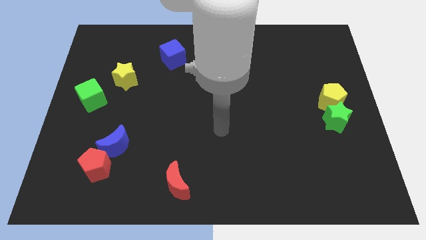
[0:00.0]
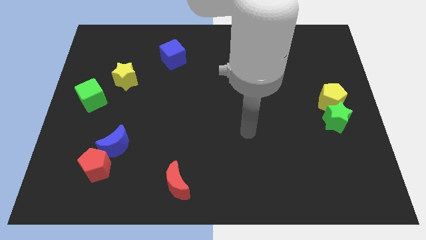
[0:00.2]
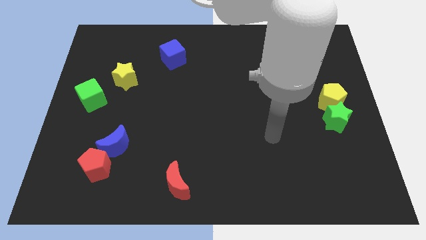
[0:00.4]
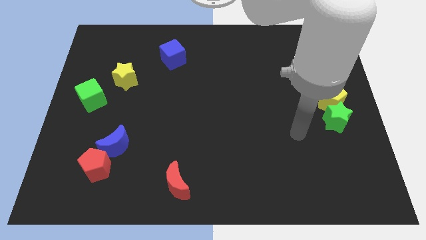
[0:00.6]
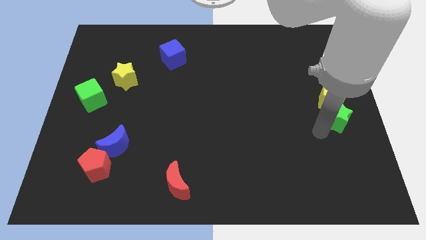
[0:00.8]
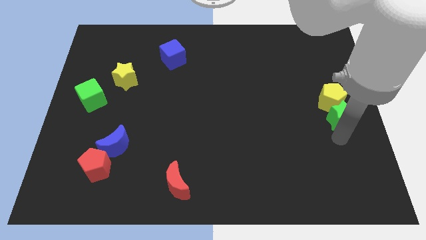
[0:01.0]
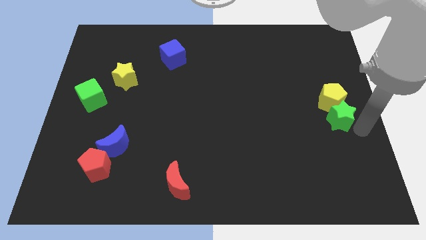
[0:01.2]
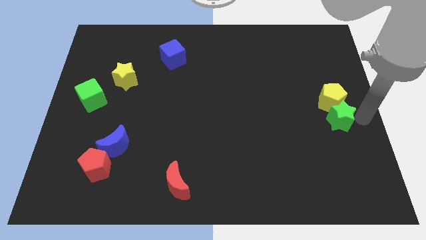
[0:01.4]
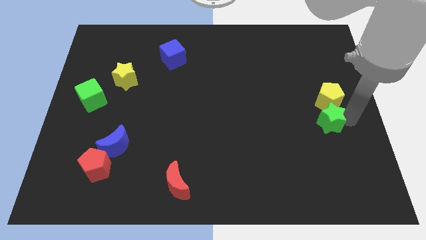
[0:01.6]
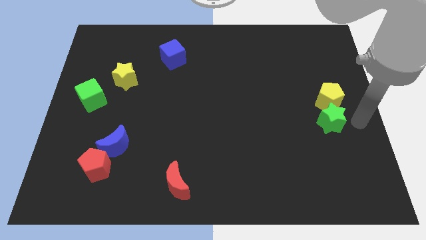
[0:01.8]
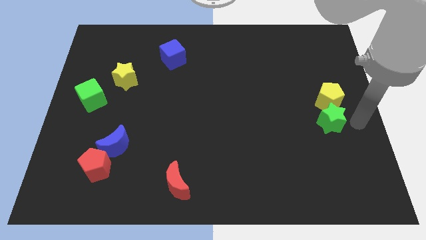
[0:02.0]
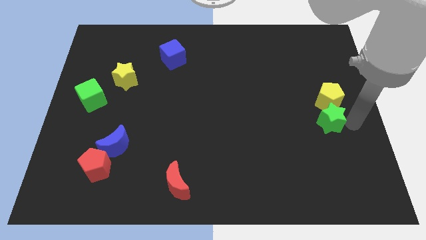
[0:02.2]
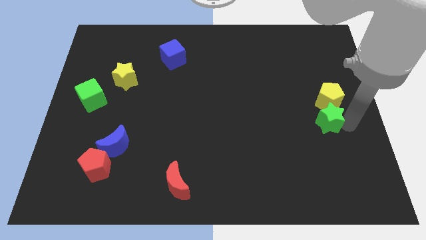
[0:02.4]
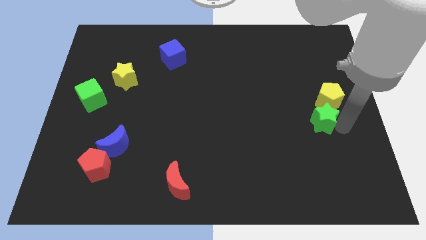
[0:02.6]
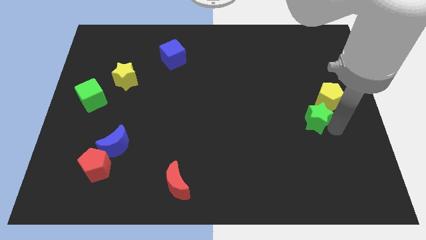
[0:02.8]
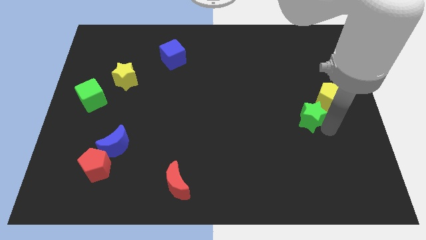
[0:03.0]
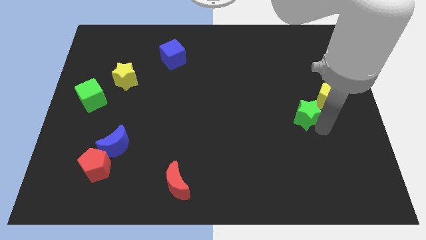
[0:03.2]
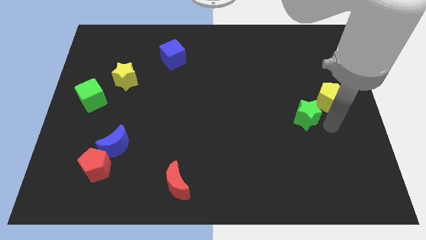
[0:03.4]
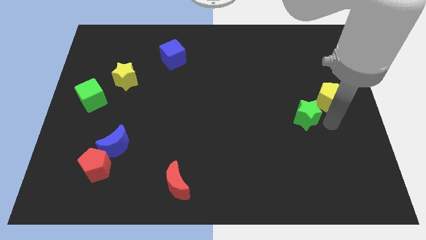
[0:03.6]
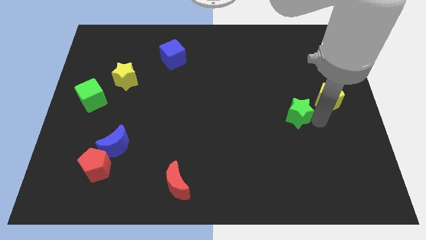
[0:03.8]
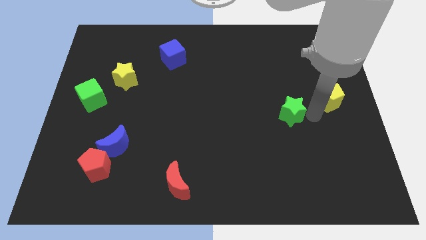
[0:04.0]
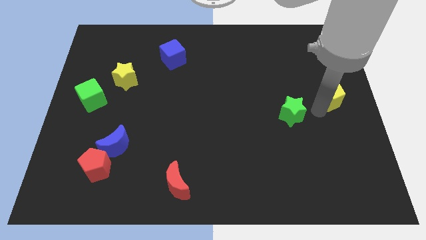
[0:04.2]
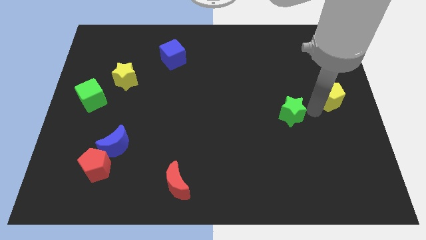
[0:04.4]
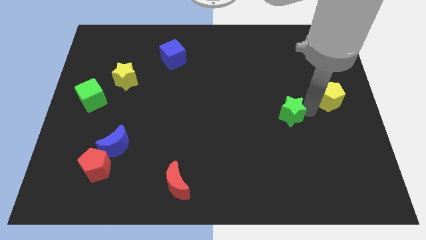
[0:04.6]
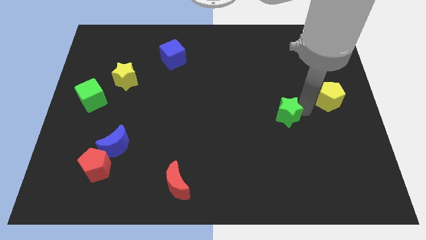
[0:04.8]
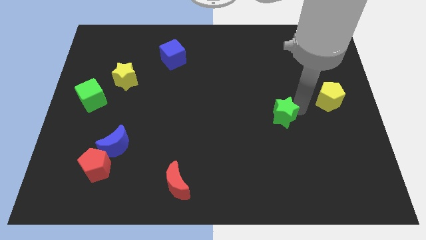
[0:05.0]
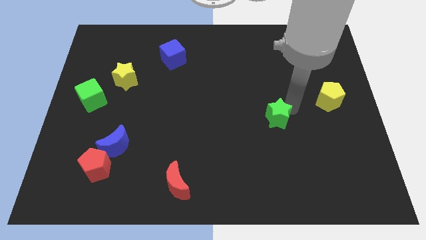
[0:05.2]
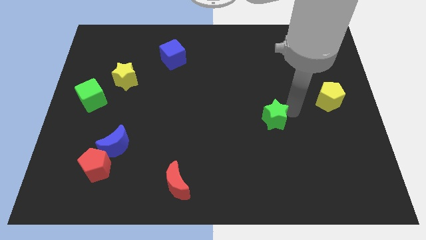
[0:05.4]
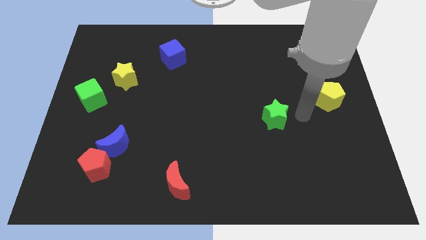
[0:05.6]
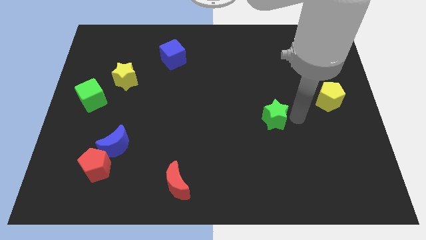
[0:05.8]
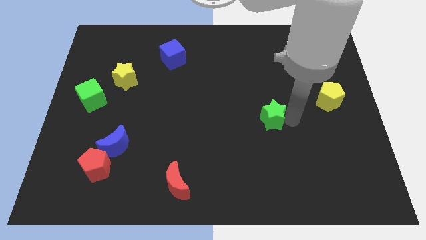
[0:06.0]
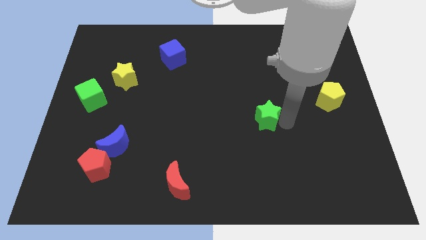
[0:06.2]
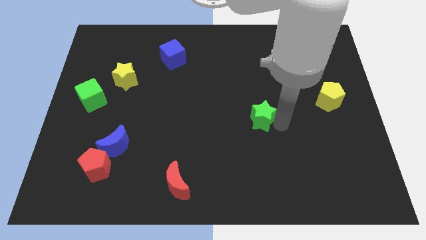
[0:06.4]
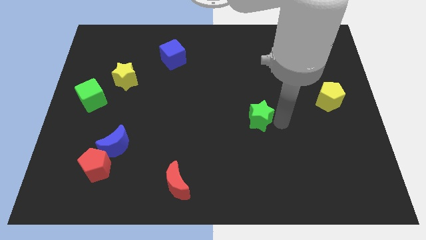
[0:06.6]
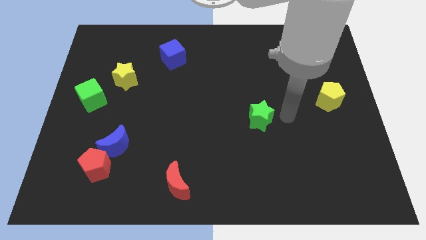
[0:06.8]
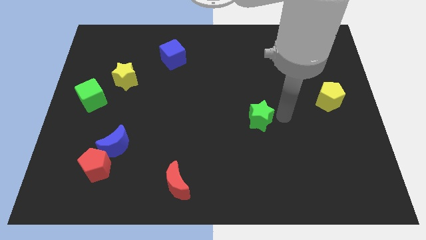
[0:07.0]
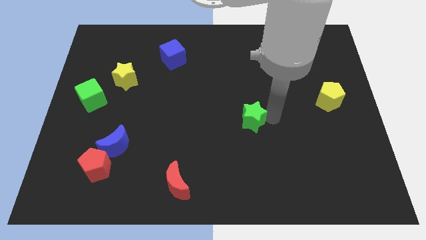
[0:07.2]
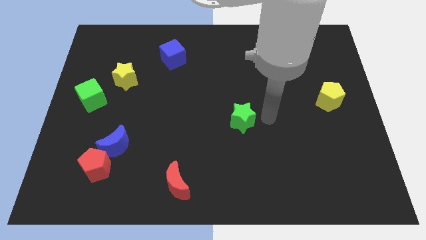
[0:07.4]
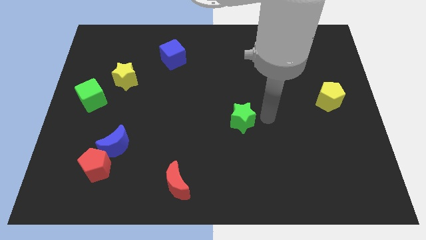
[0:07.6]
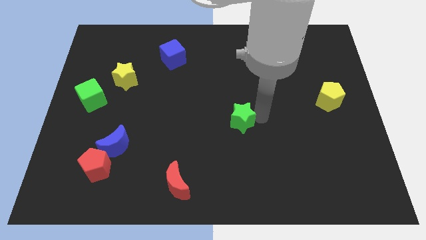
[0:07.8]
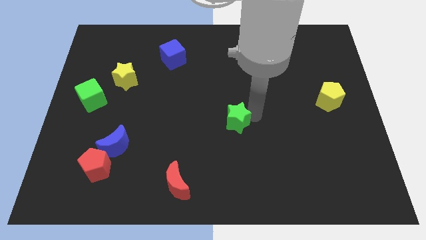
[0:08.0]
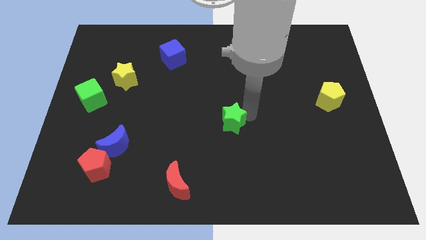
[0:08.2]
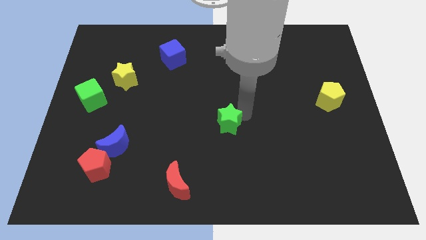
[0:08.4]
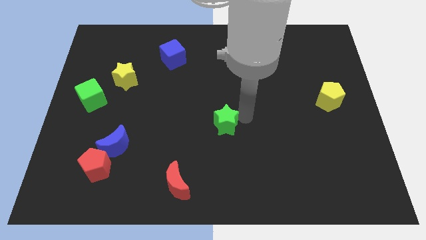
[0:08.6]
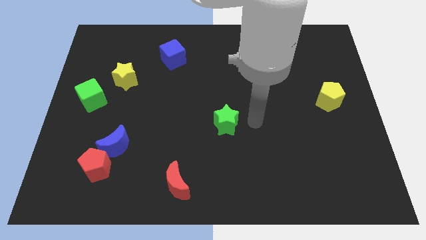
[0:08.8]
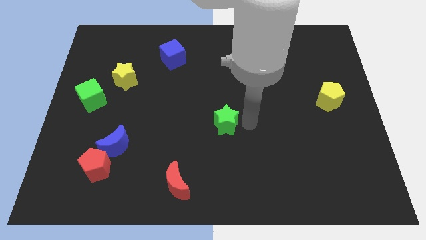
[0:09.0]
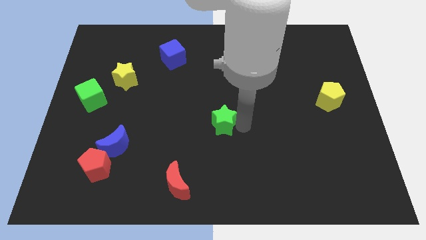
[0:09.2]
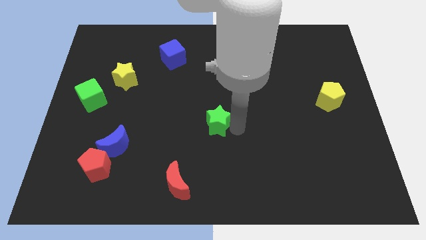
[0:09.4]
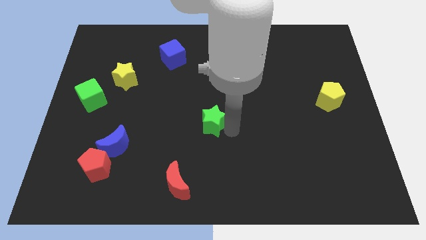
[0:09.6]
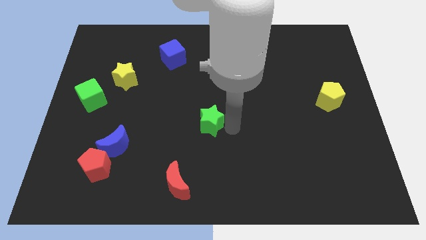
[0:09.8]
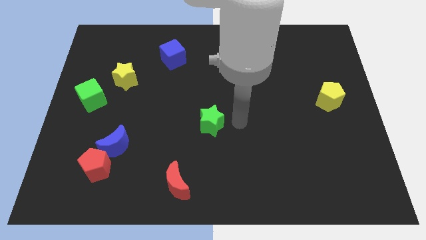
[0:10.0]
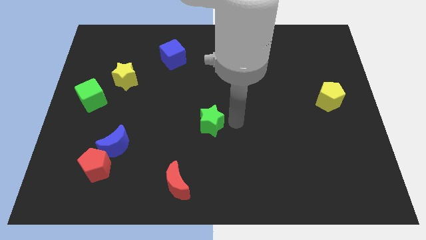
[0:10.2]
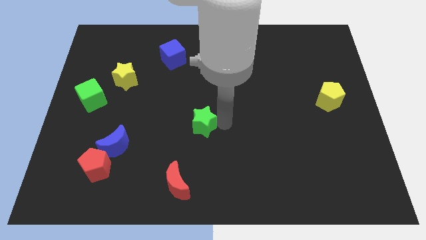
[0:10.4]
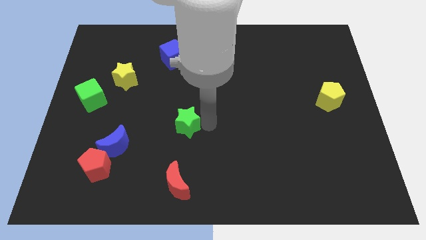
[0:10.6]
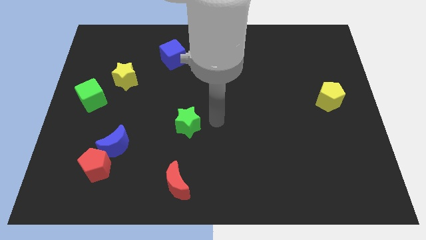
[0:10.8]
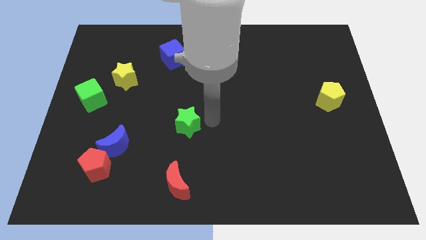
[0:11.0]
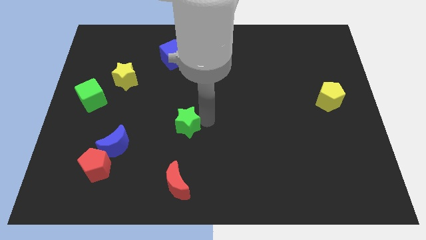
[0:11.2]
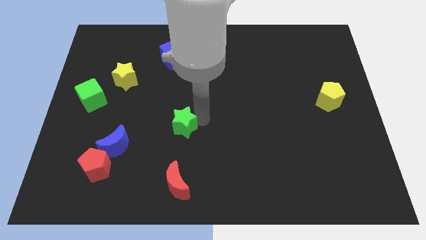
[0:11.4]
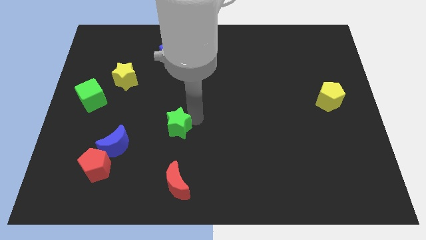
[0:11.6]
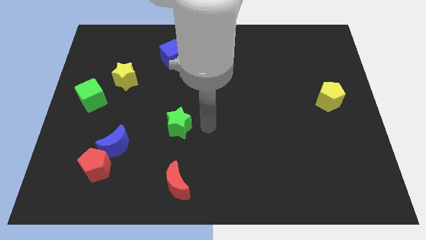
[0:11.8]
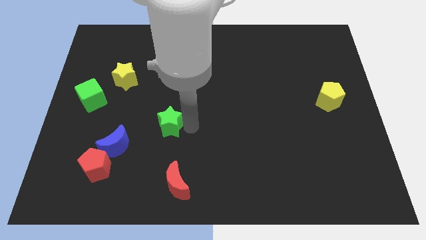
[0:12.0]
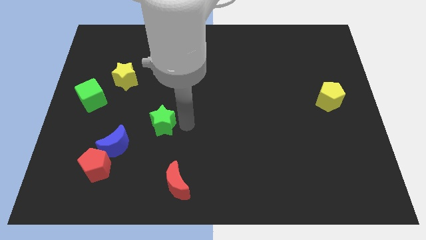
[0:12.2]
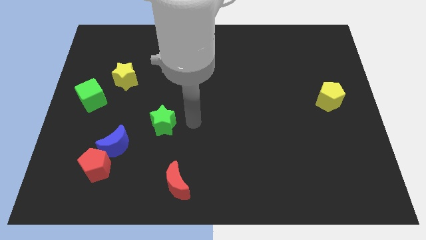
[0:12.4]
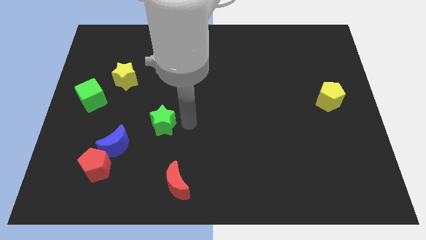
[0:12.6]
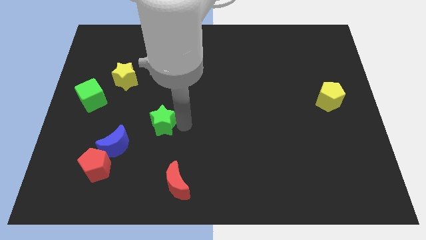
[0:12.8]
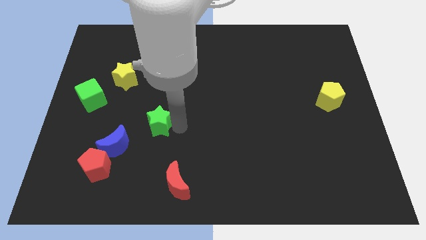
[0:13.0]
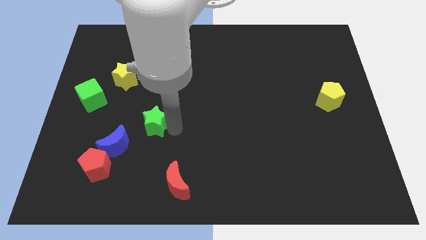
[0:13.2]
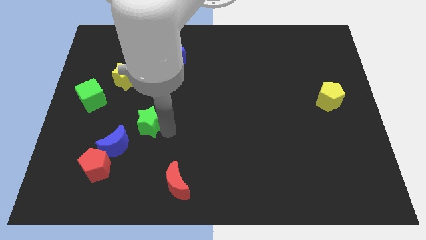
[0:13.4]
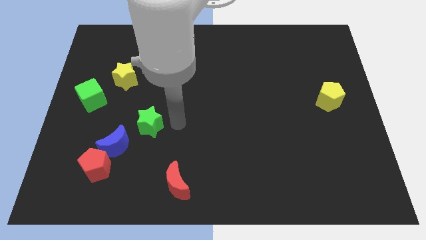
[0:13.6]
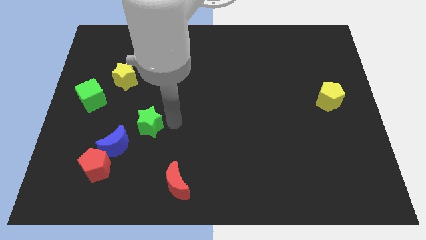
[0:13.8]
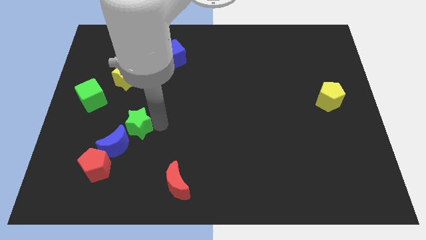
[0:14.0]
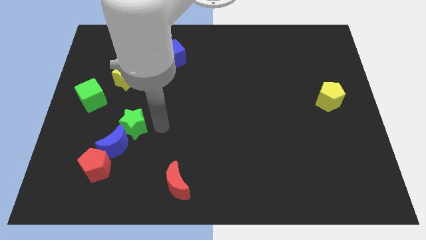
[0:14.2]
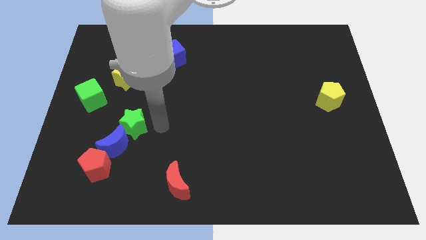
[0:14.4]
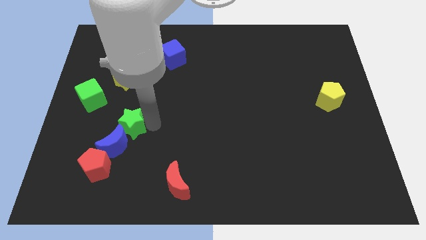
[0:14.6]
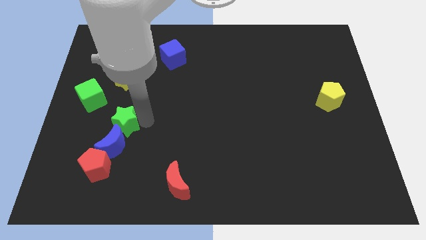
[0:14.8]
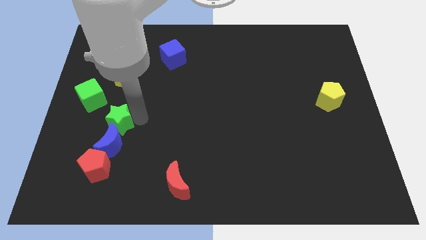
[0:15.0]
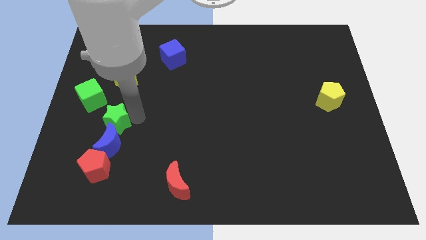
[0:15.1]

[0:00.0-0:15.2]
slide the green star to the top left of the blue moon
